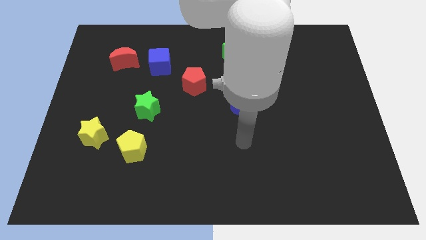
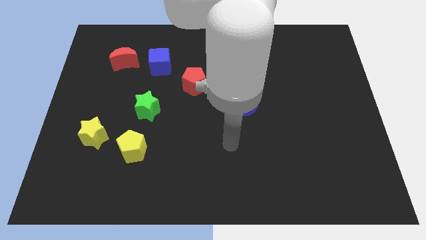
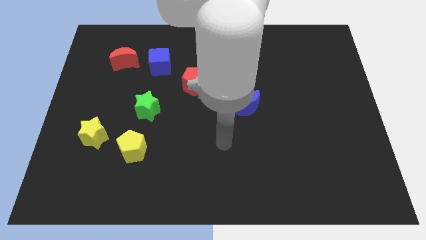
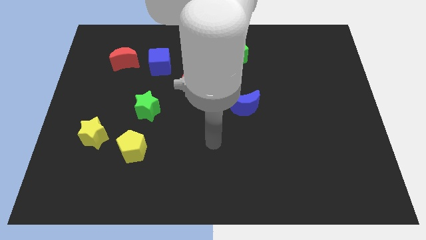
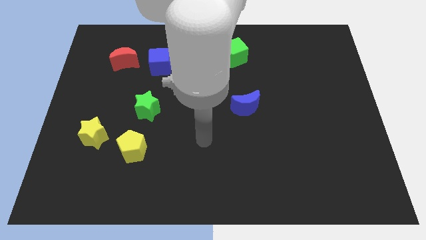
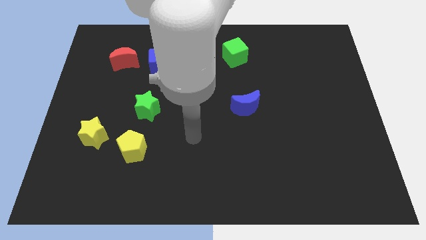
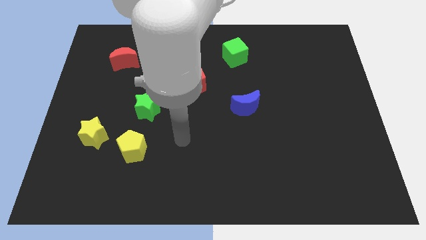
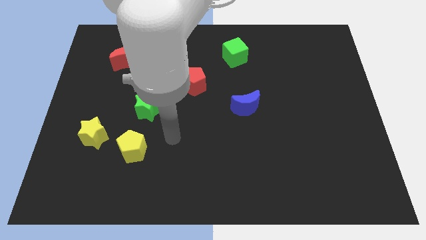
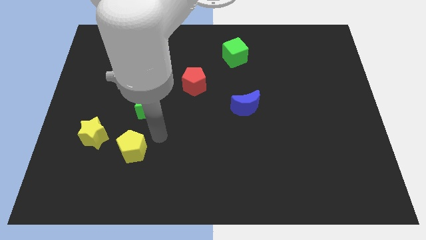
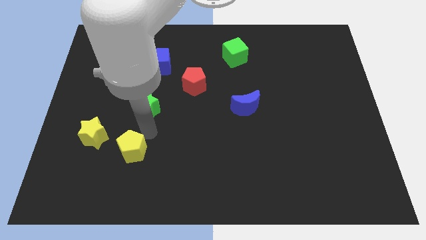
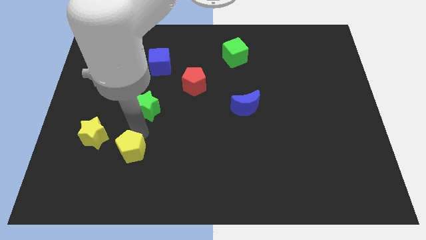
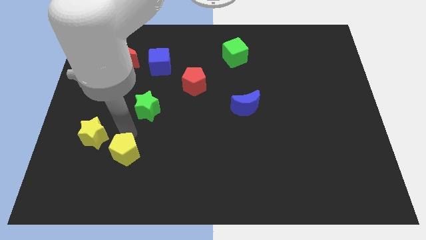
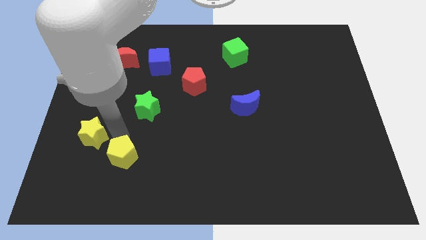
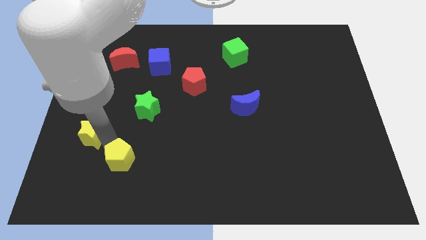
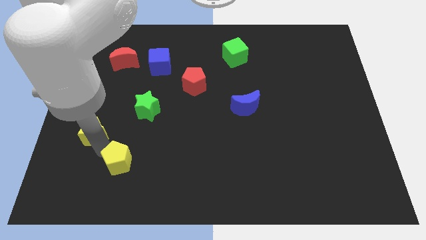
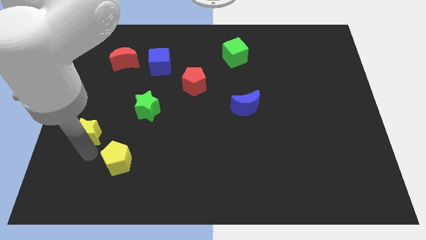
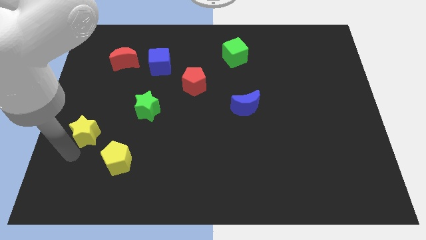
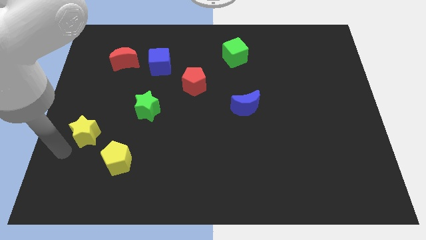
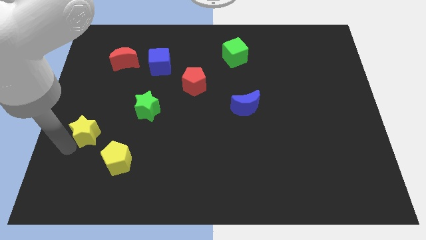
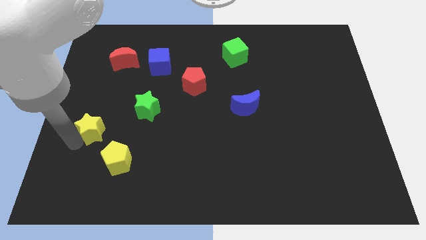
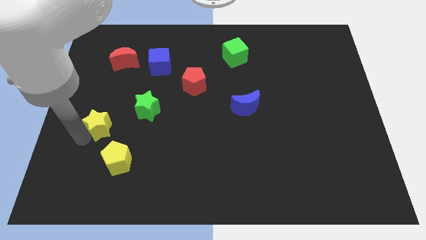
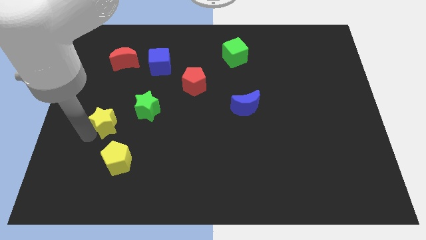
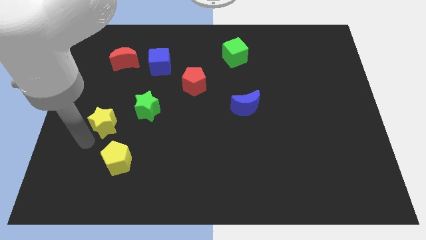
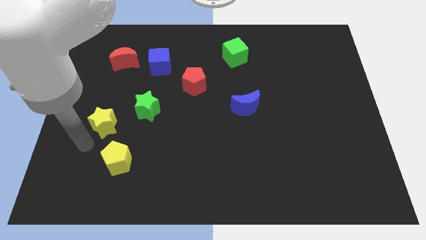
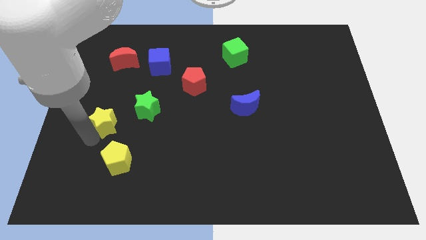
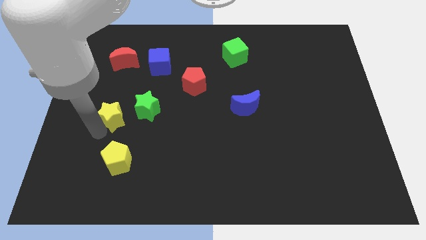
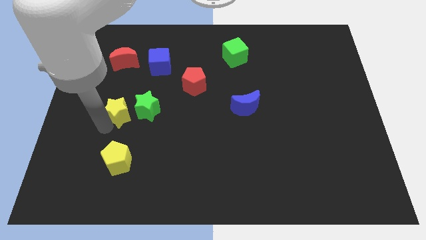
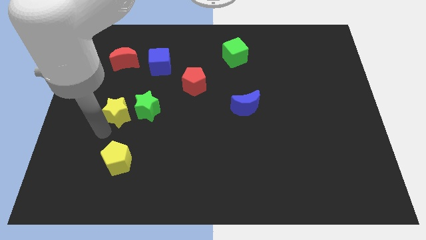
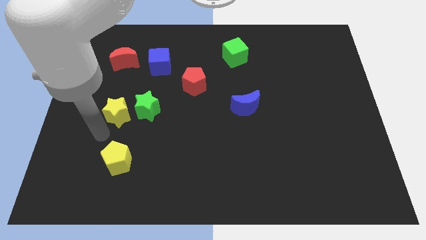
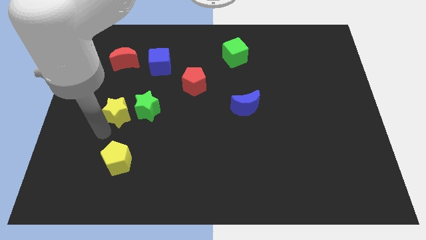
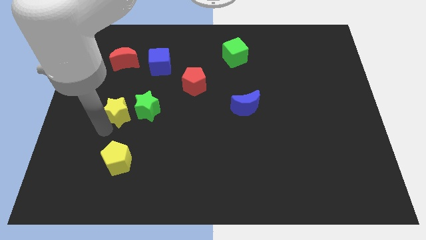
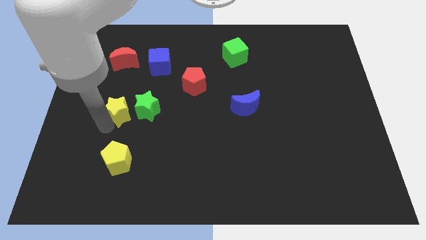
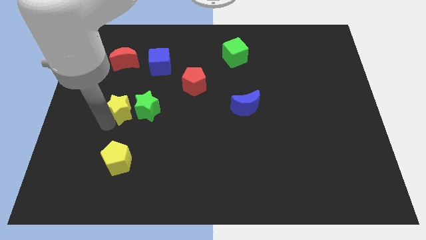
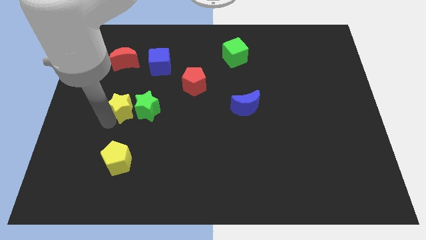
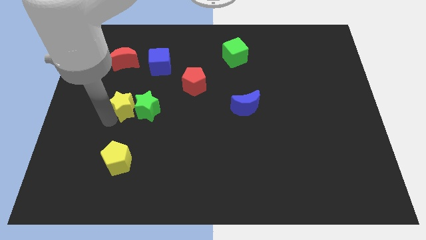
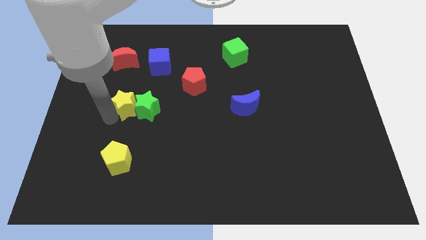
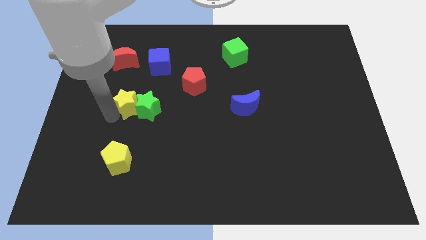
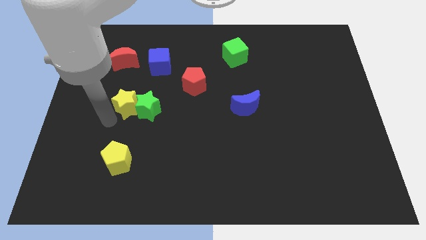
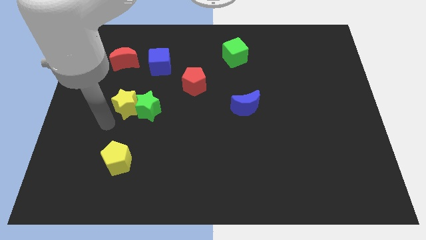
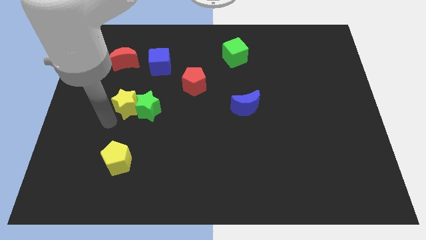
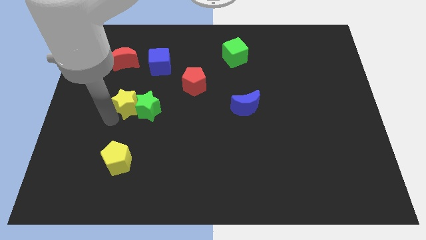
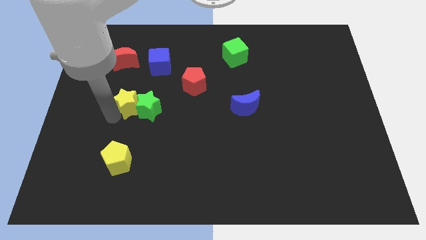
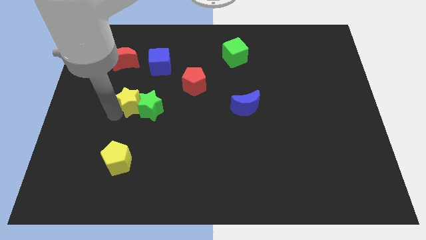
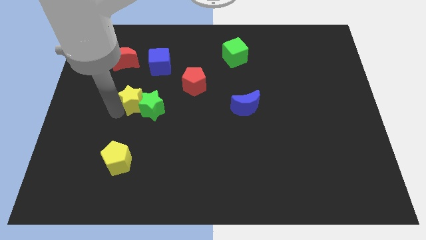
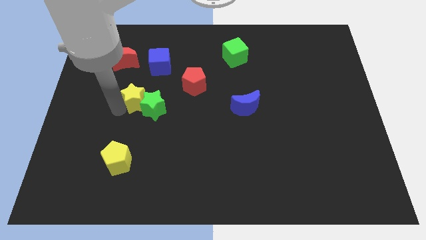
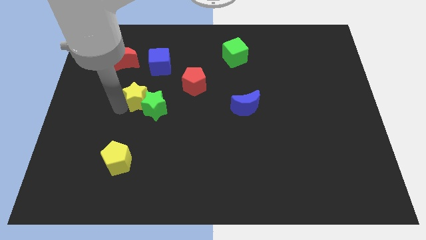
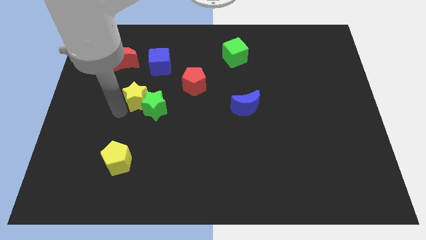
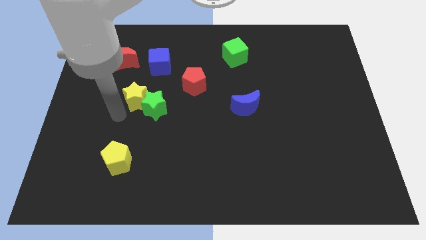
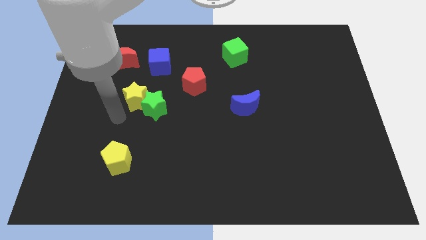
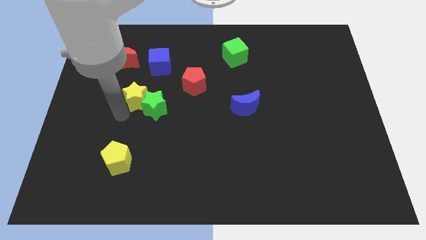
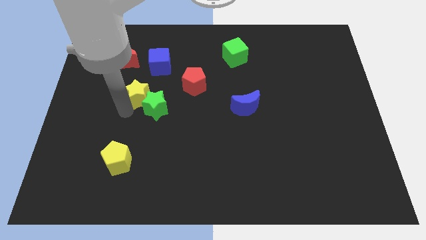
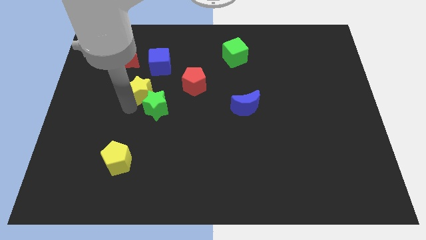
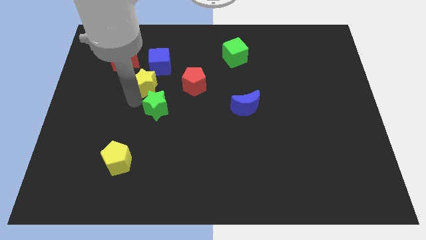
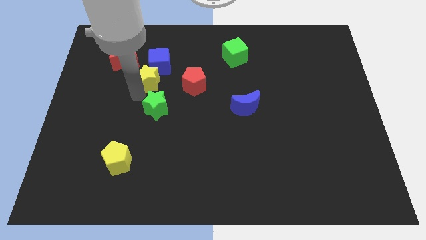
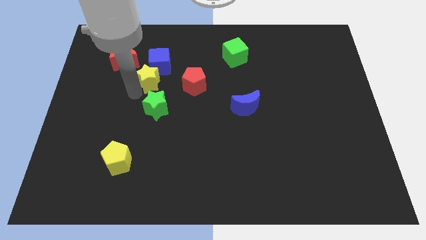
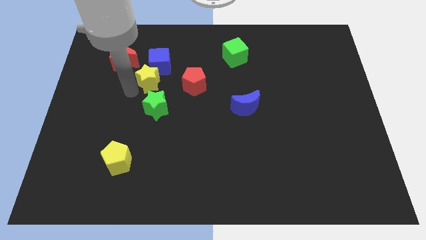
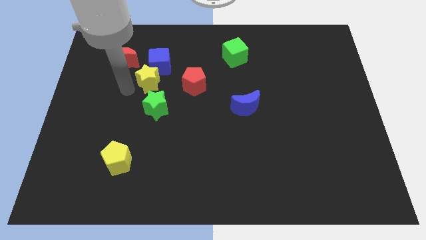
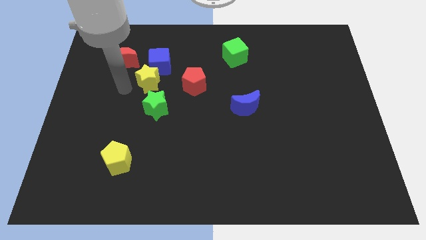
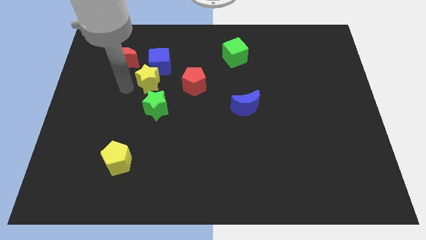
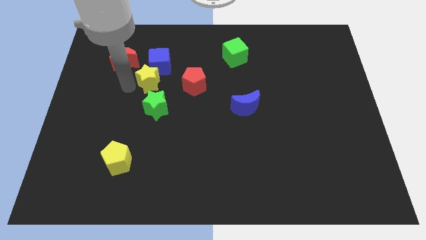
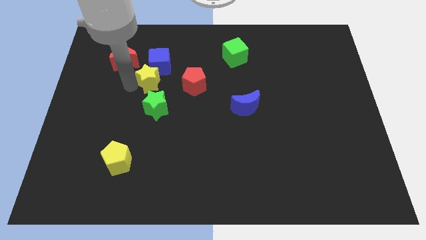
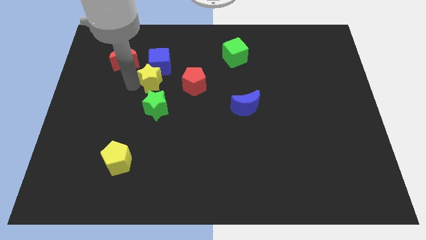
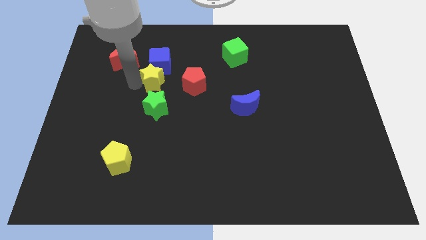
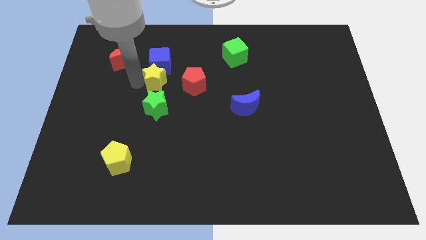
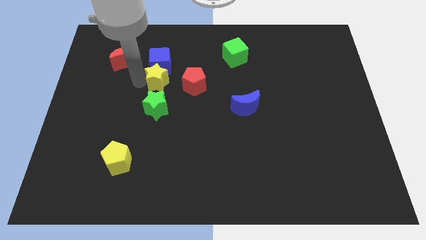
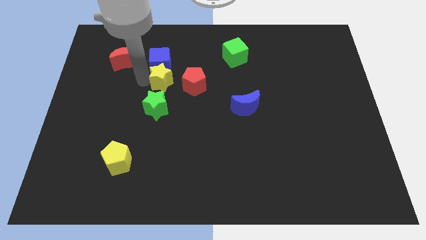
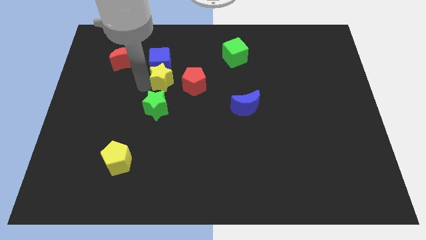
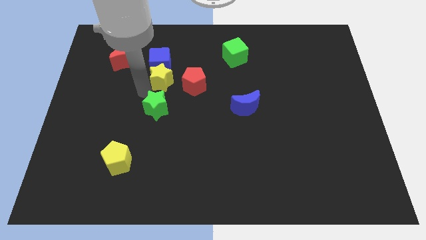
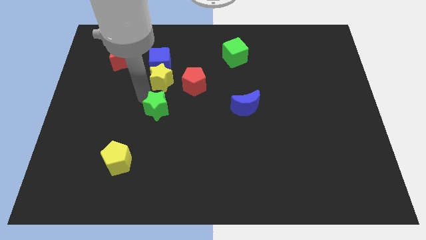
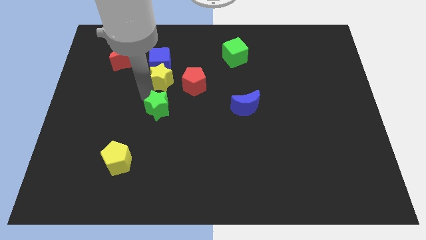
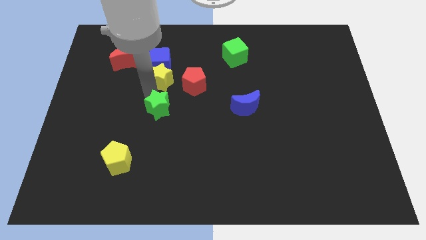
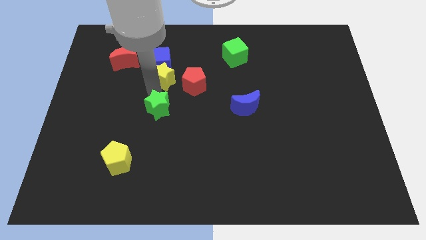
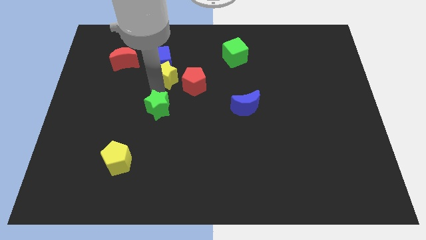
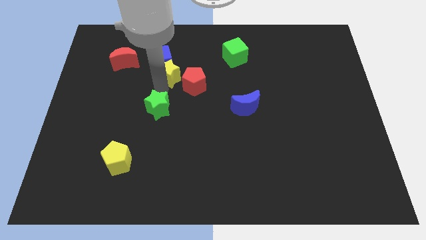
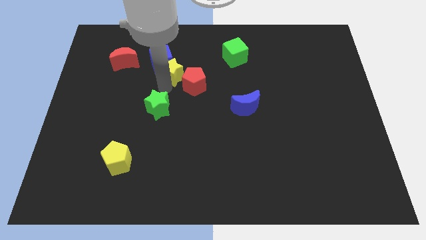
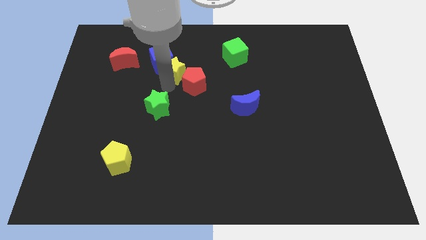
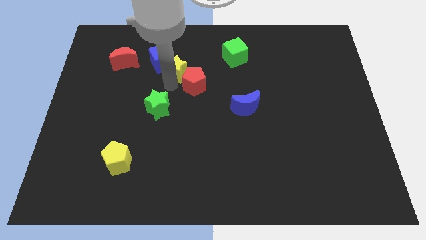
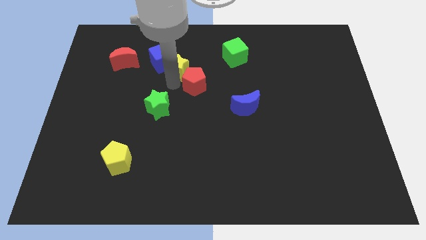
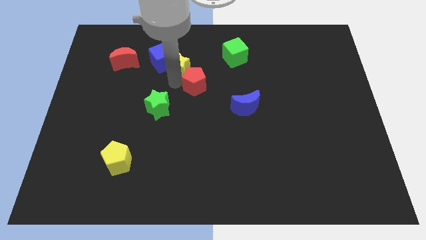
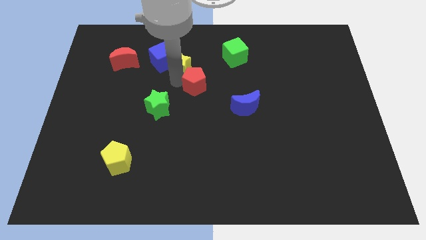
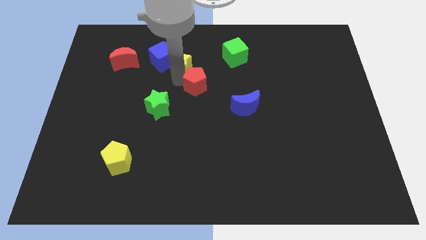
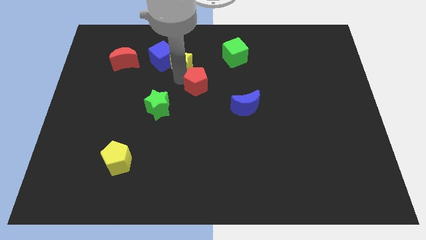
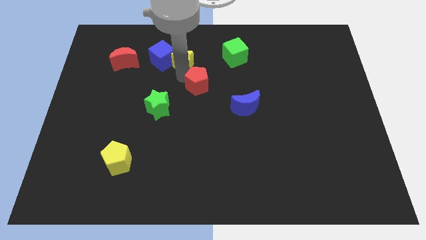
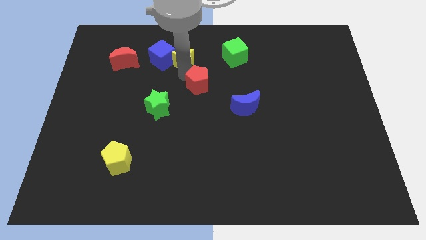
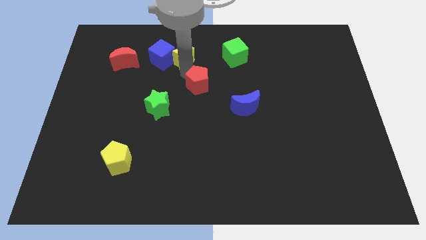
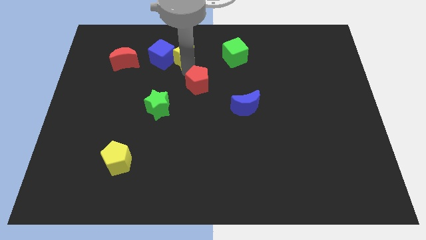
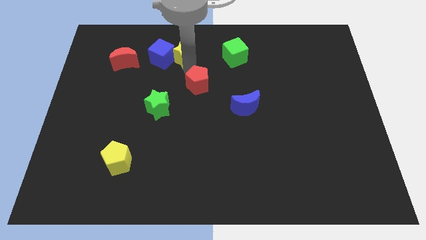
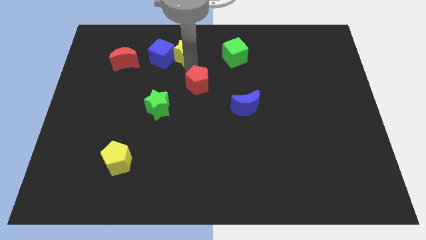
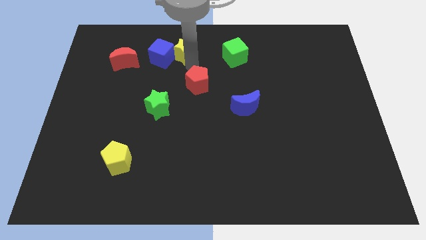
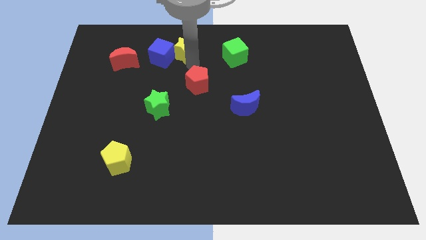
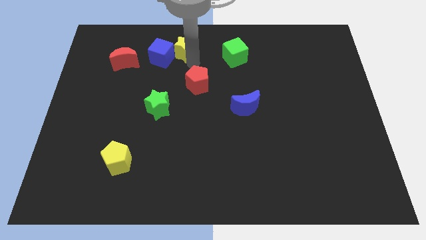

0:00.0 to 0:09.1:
slide the yellow star to the towards your base
